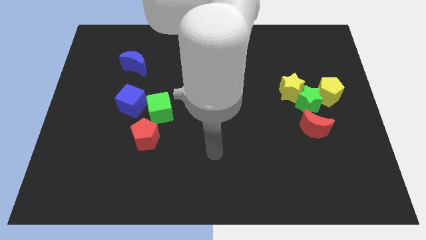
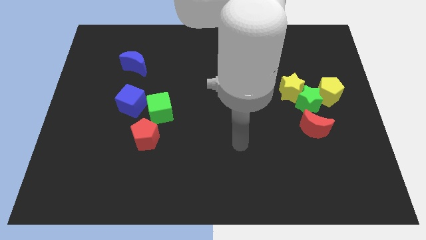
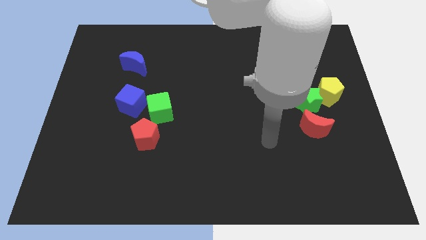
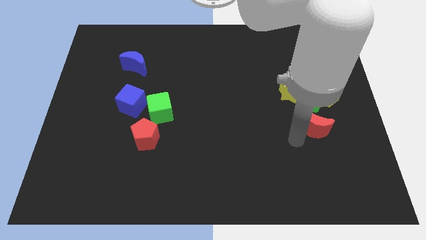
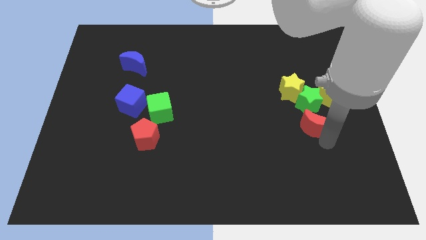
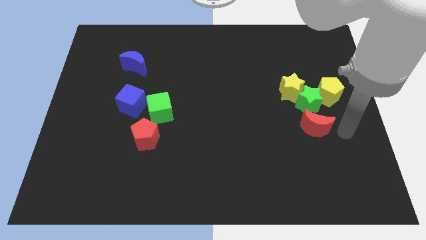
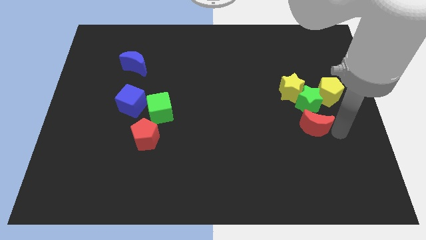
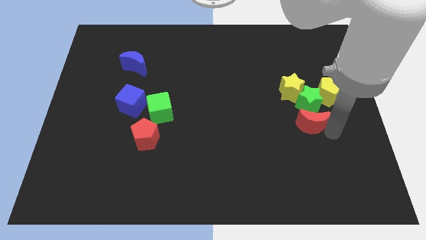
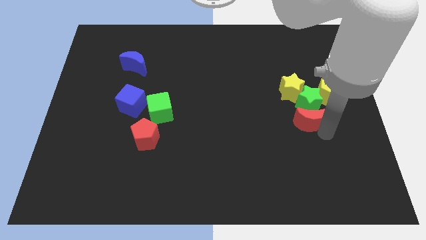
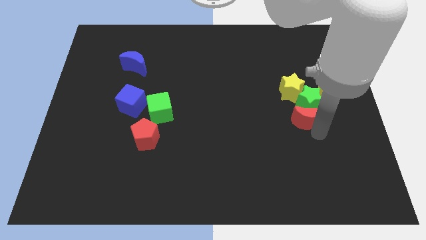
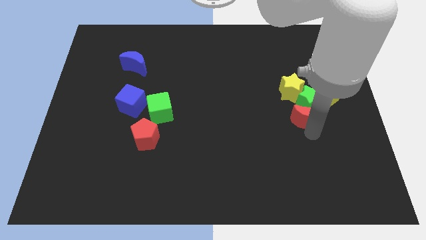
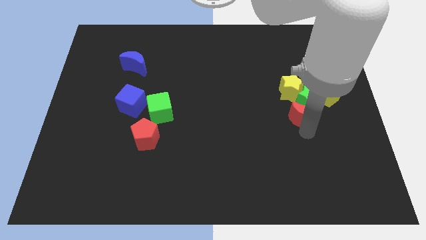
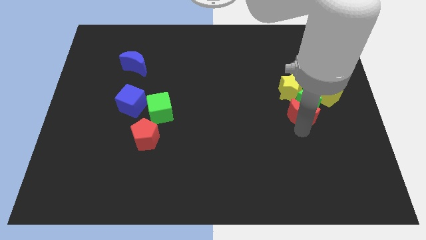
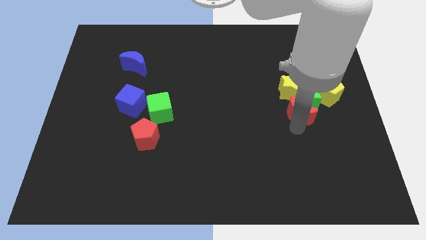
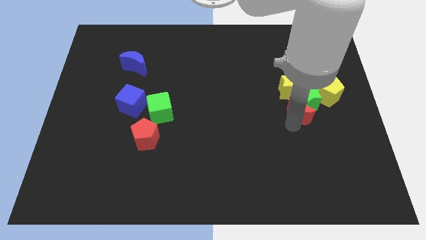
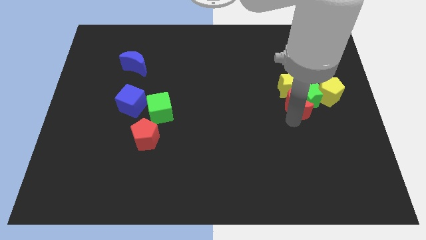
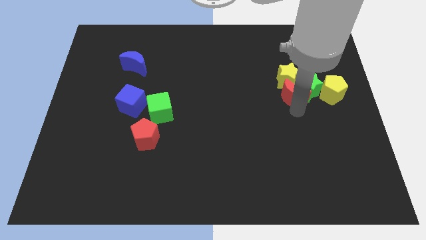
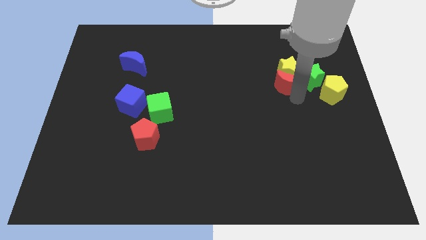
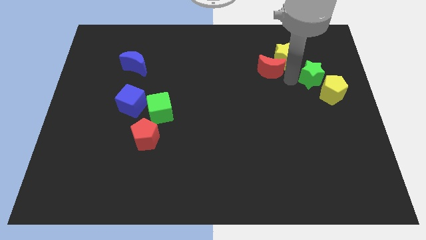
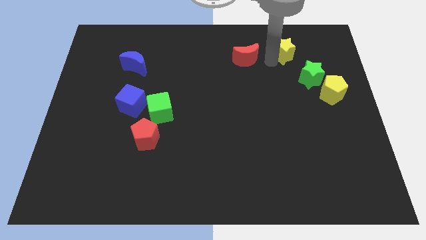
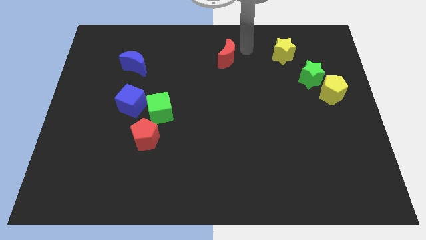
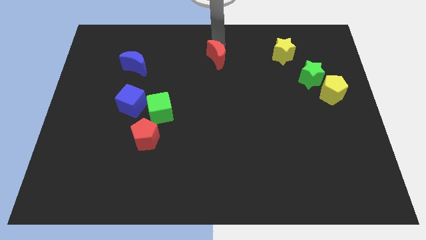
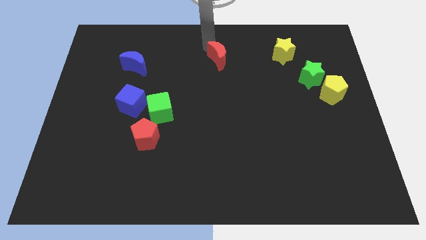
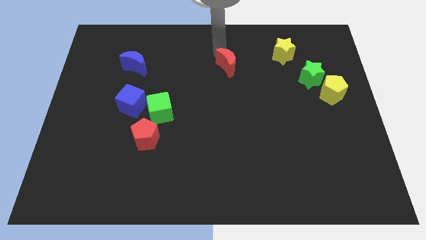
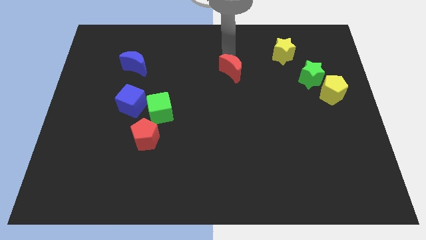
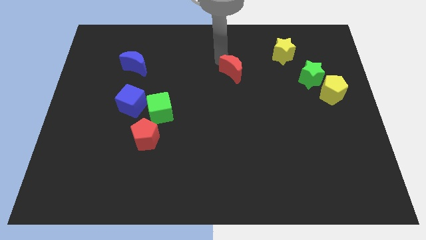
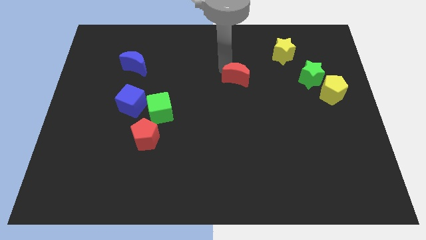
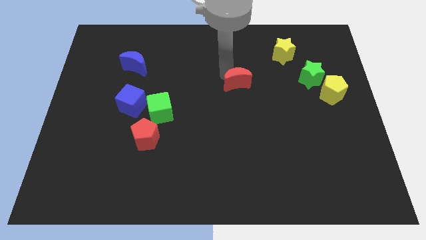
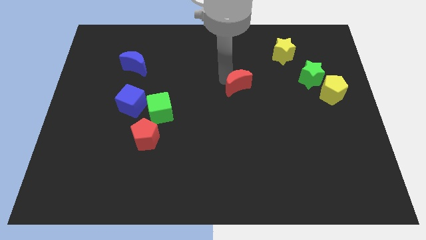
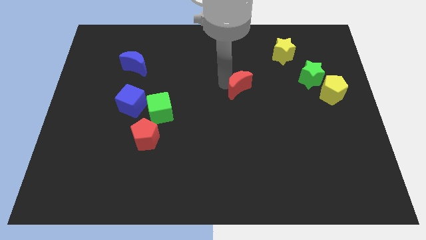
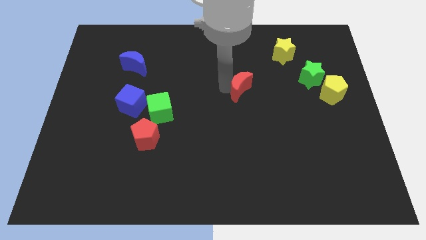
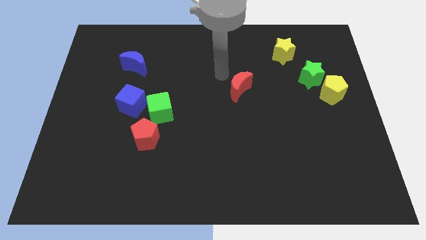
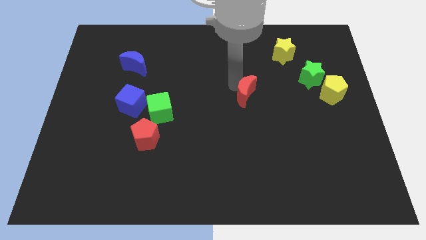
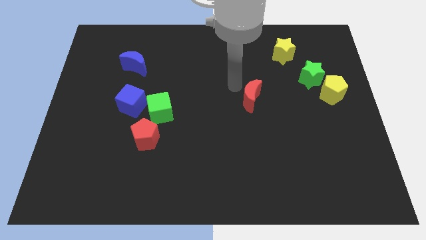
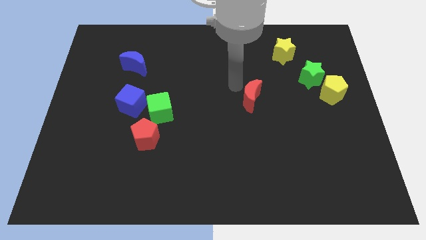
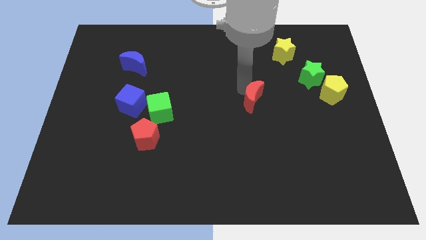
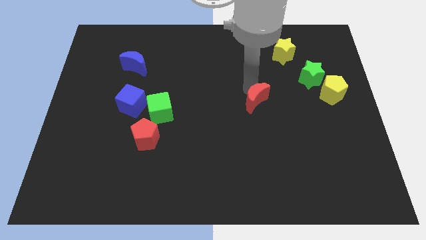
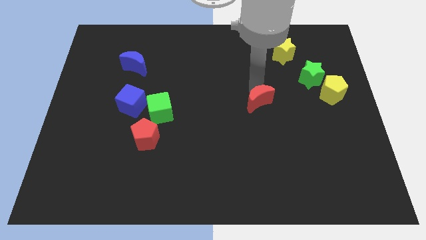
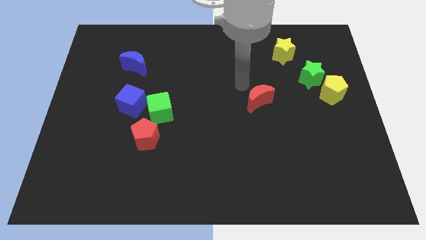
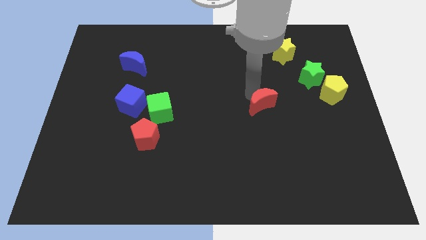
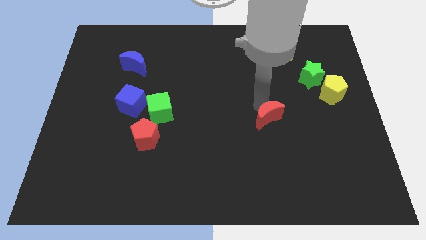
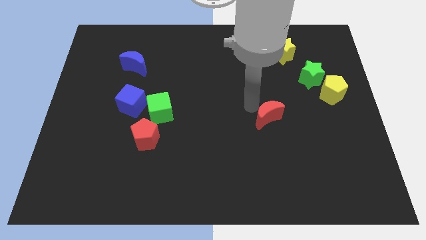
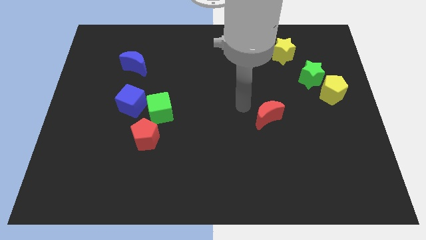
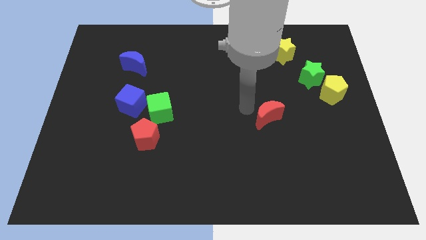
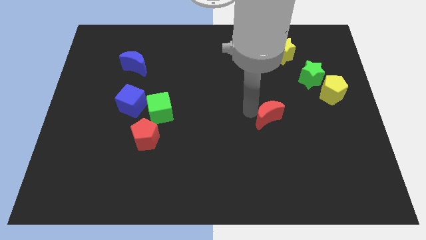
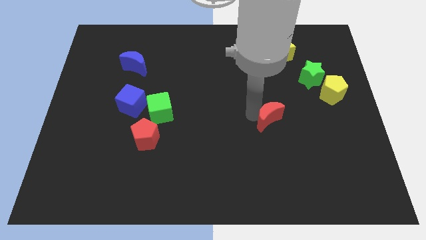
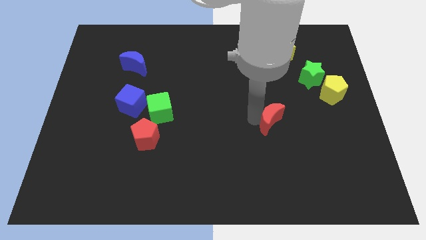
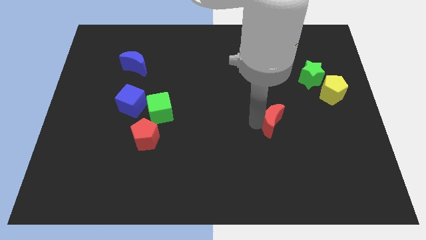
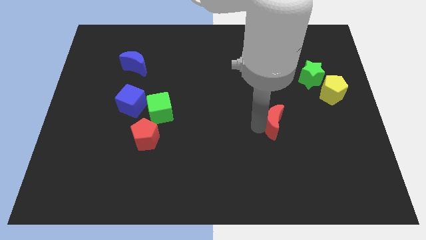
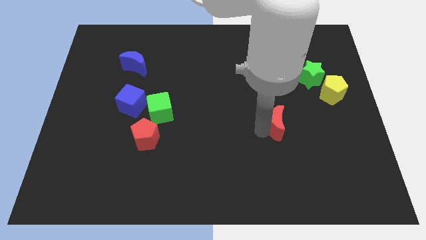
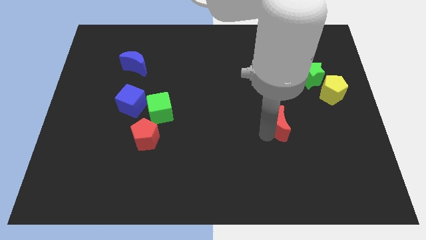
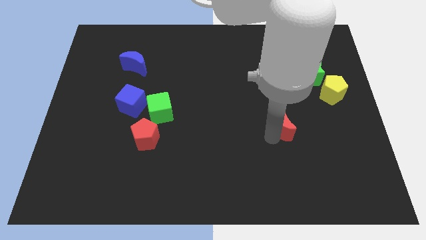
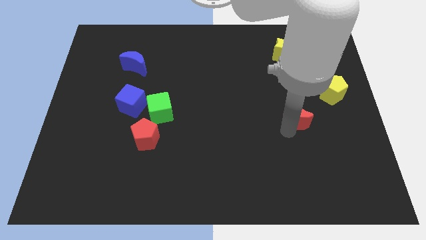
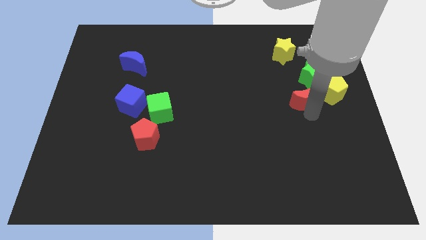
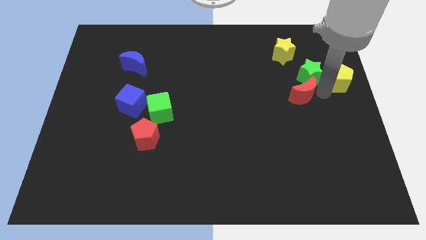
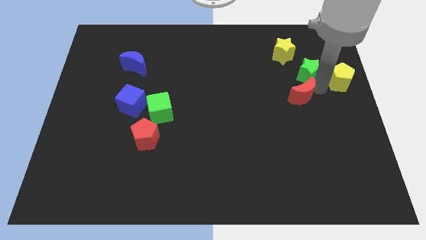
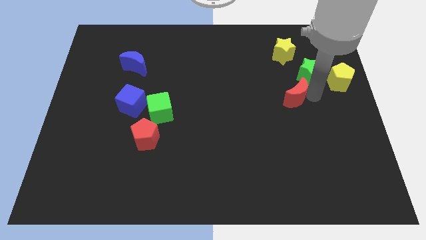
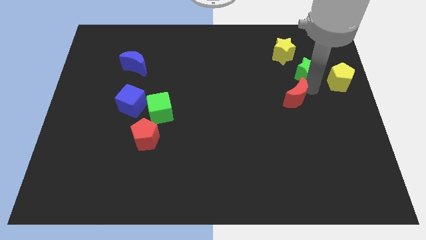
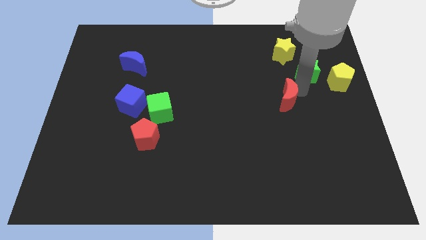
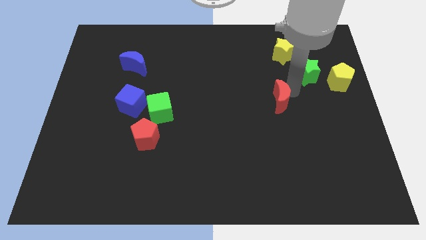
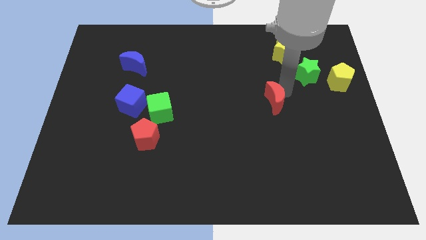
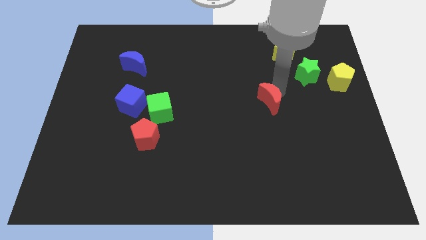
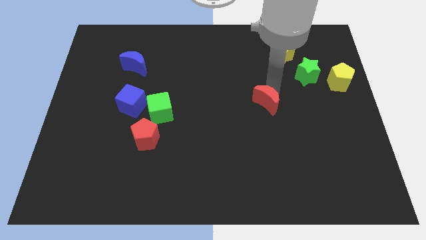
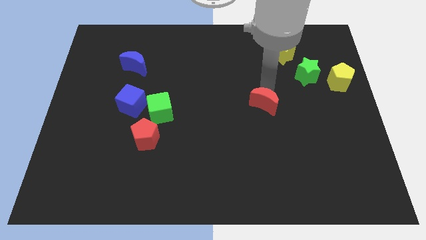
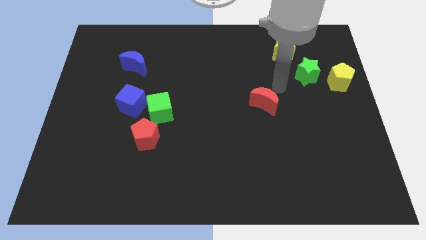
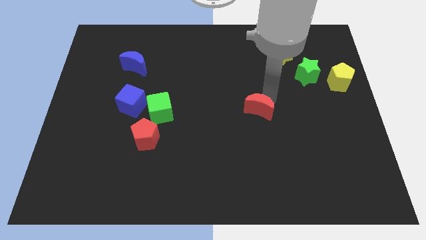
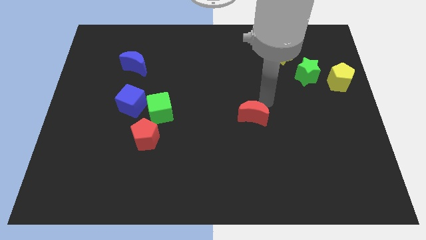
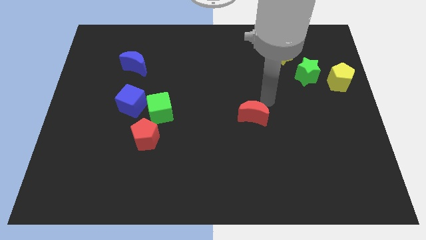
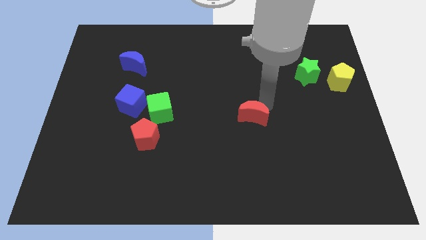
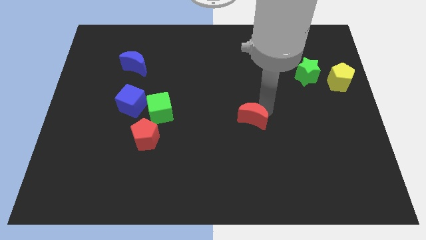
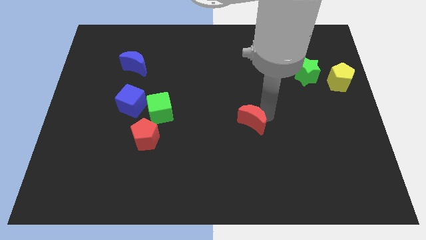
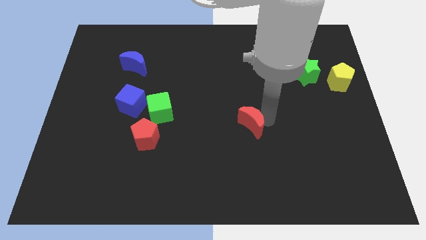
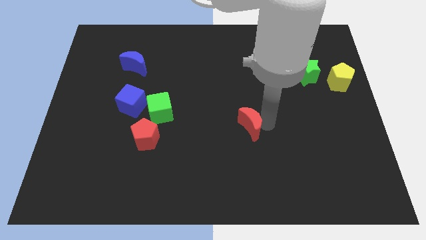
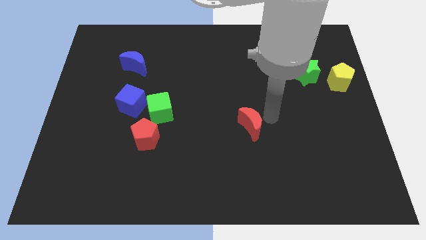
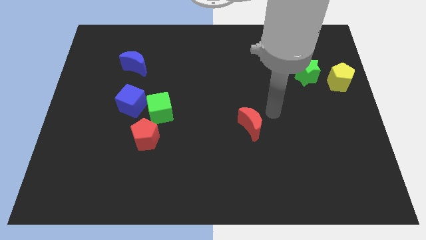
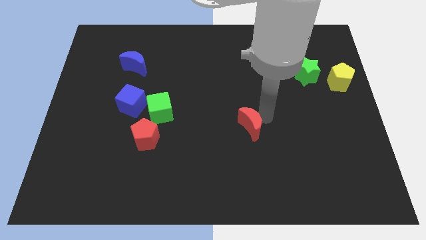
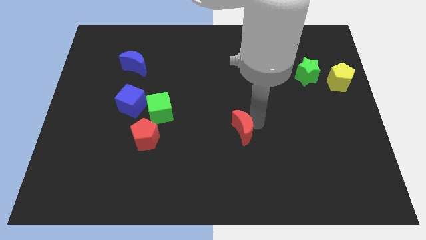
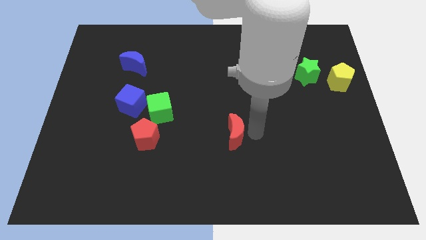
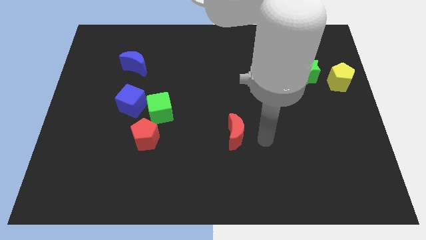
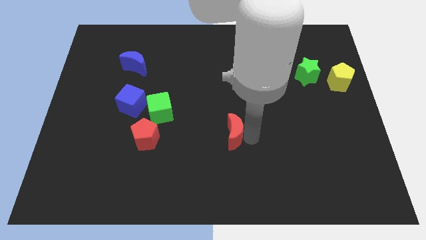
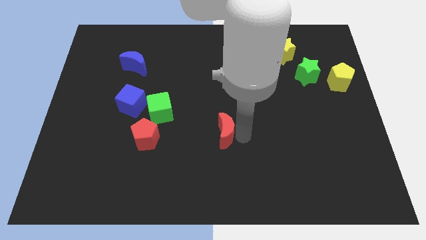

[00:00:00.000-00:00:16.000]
push the red moon left

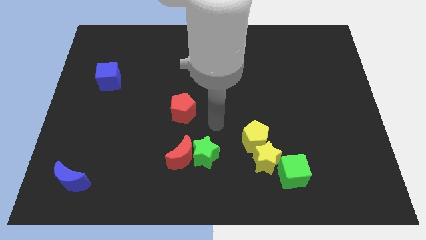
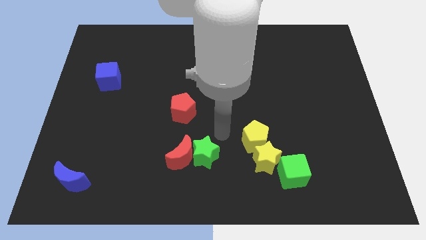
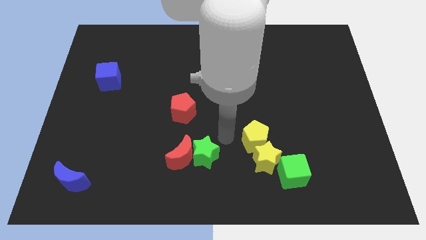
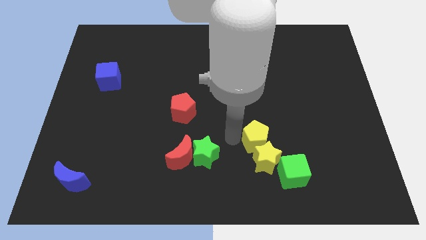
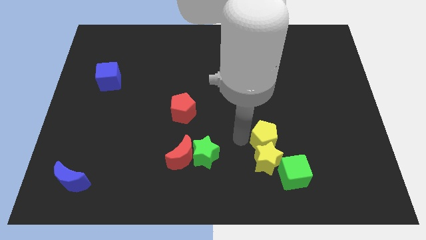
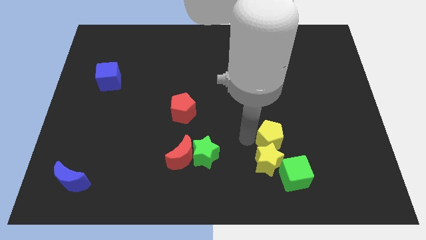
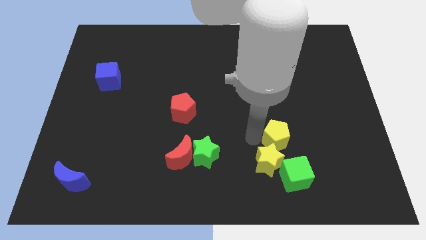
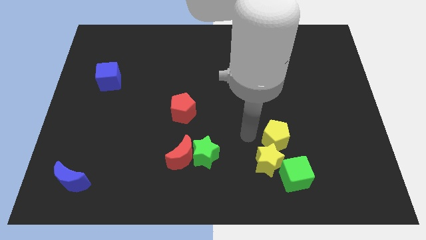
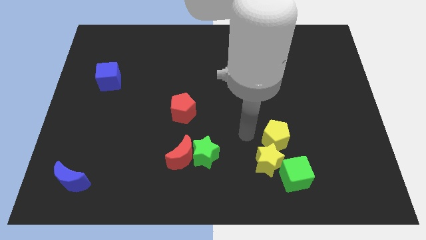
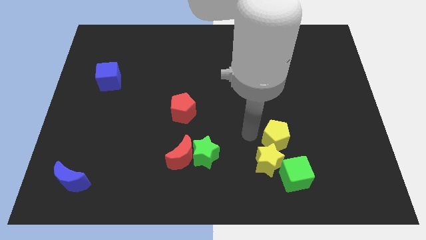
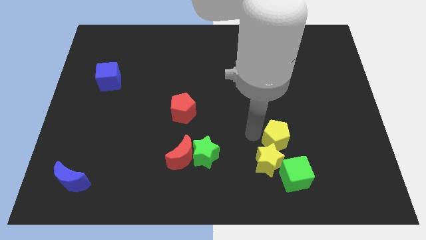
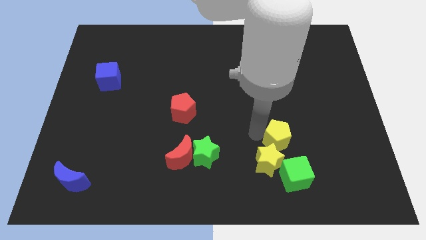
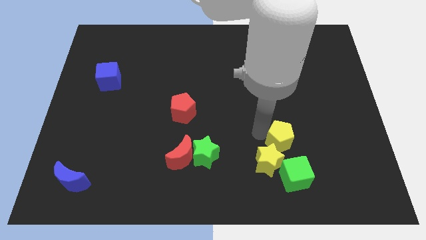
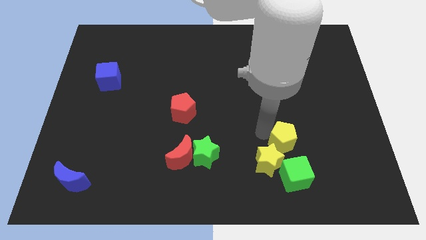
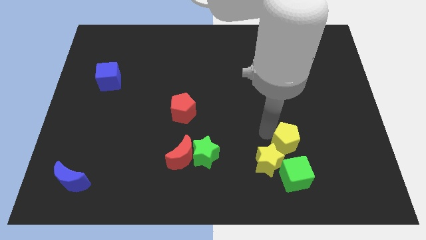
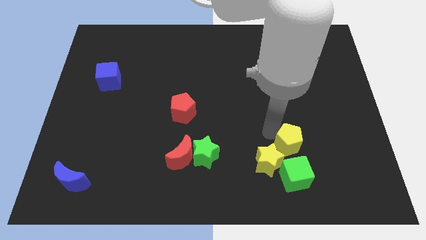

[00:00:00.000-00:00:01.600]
move the yellow pentagon to the right somewhat
